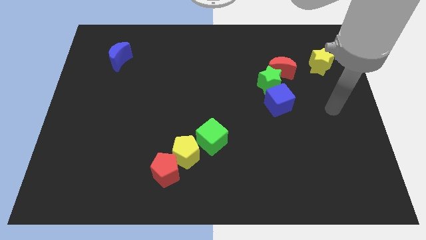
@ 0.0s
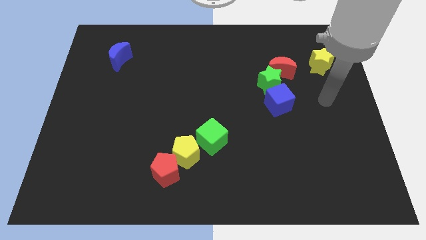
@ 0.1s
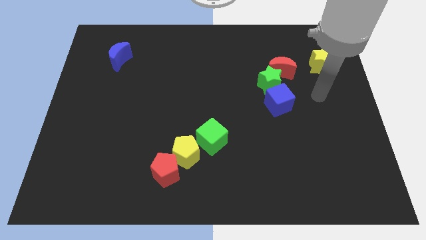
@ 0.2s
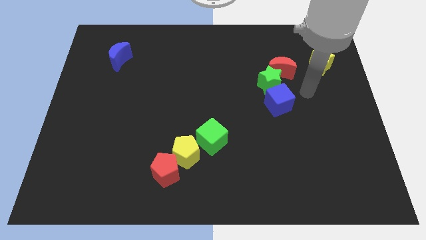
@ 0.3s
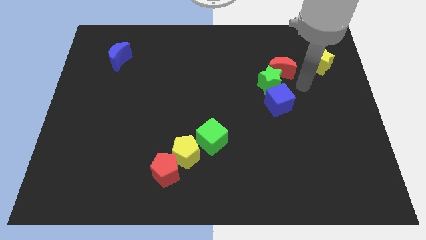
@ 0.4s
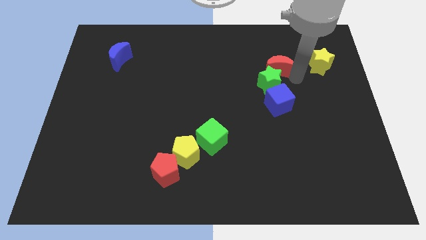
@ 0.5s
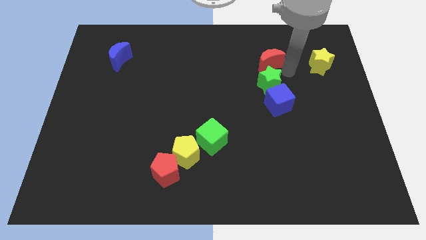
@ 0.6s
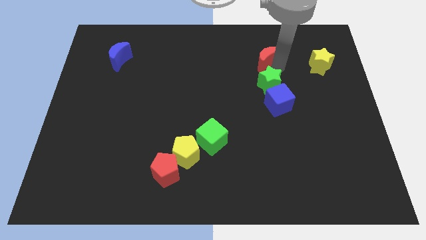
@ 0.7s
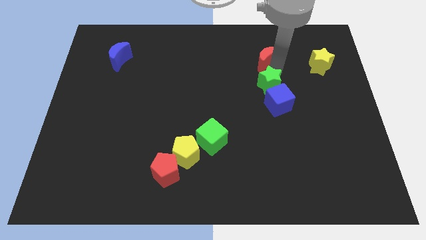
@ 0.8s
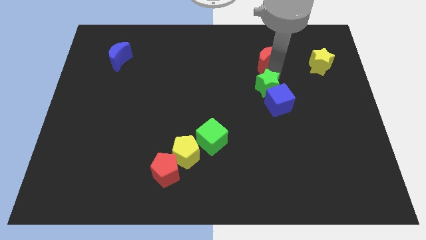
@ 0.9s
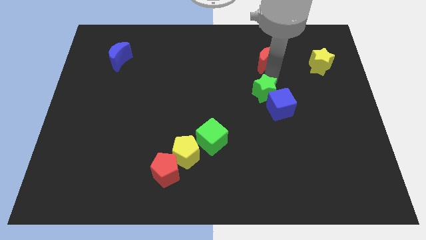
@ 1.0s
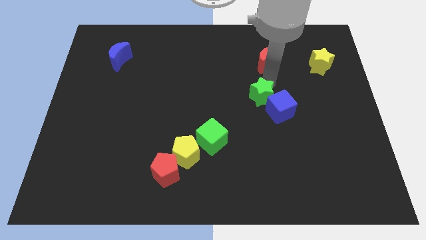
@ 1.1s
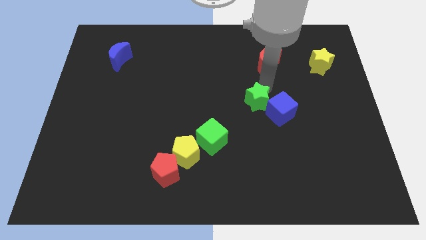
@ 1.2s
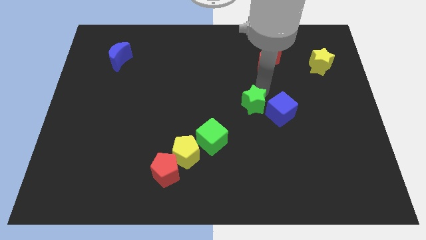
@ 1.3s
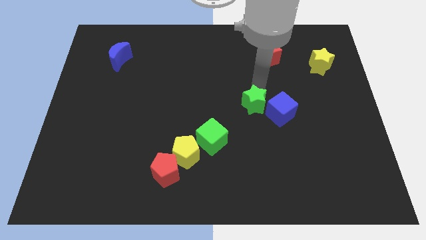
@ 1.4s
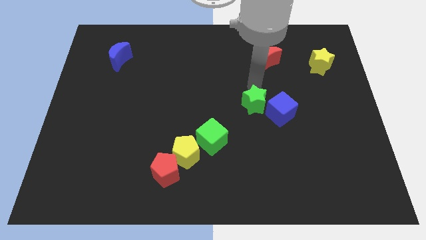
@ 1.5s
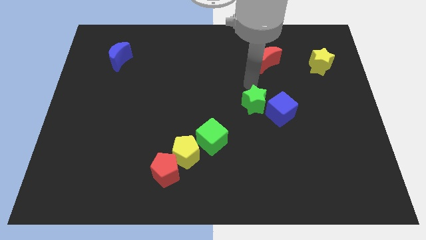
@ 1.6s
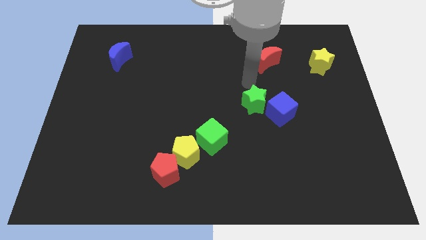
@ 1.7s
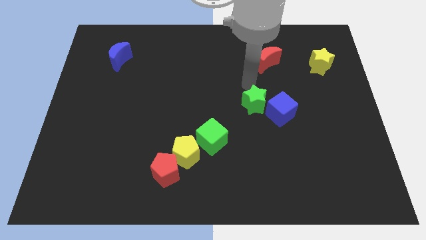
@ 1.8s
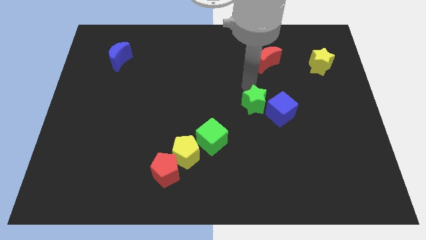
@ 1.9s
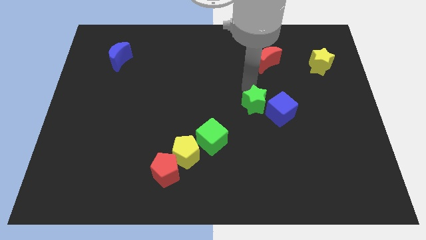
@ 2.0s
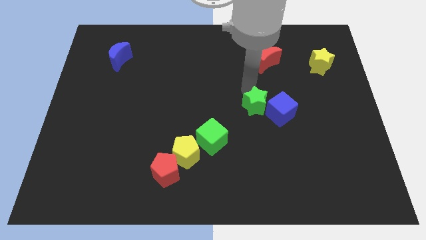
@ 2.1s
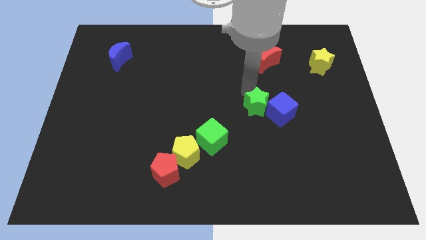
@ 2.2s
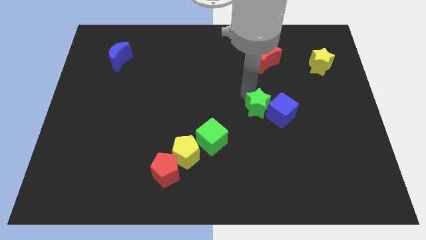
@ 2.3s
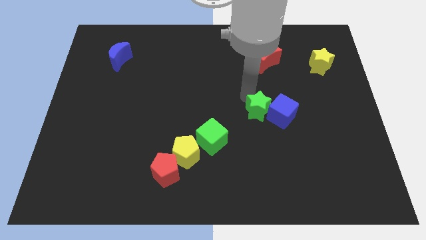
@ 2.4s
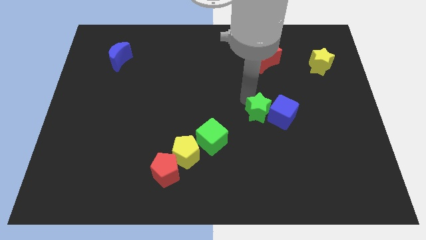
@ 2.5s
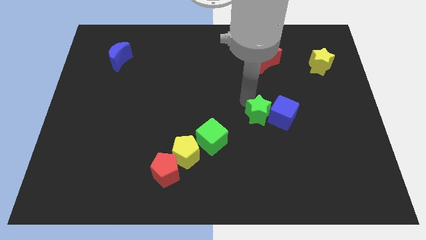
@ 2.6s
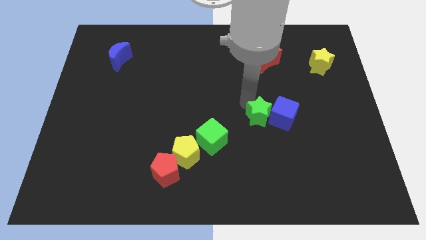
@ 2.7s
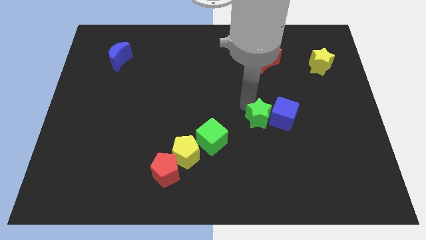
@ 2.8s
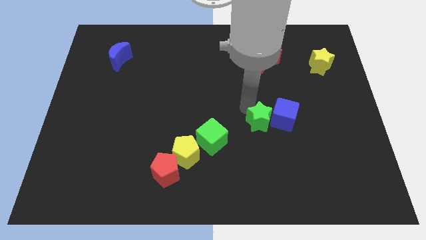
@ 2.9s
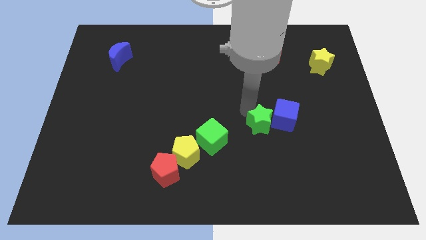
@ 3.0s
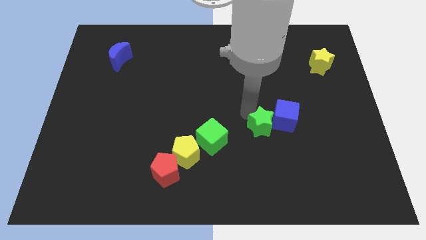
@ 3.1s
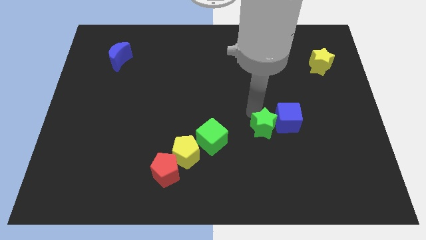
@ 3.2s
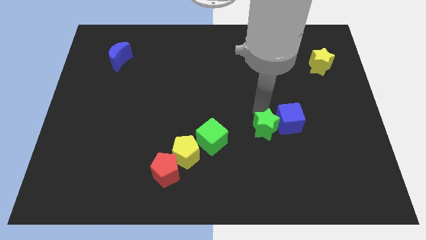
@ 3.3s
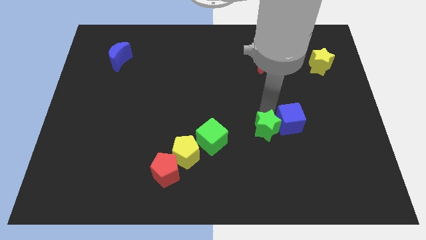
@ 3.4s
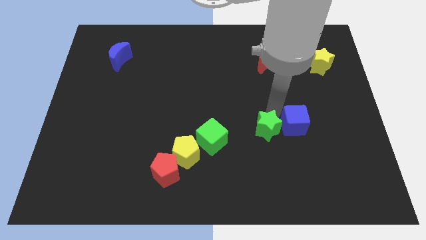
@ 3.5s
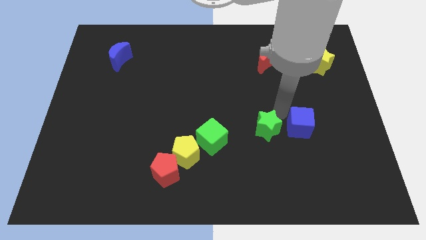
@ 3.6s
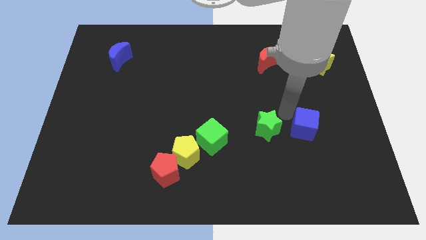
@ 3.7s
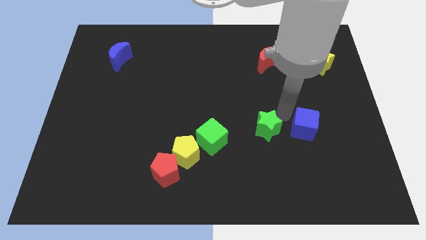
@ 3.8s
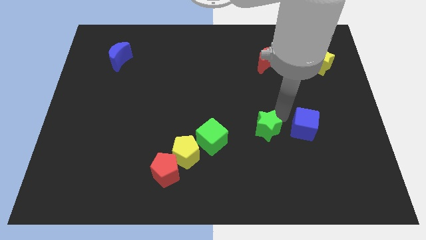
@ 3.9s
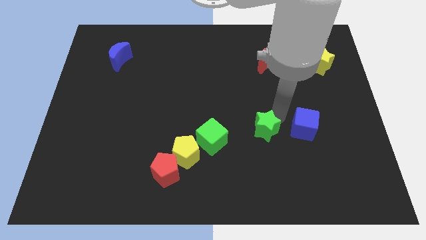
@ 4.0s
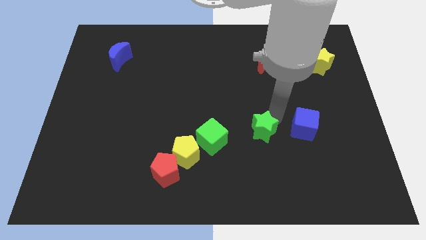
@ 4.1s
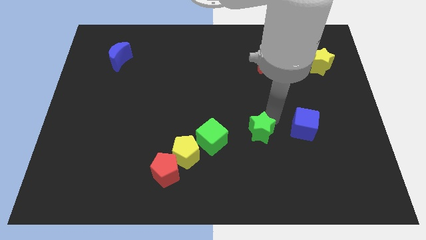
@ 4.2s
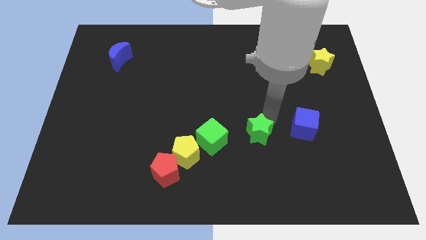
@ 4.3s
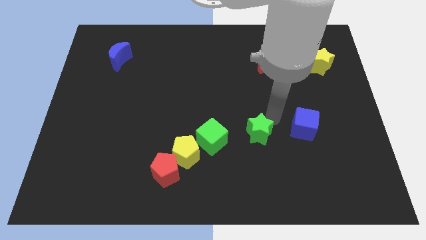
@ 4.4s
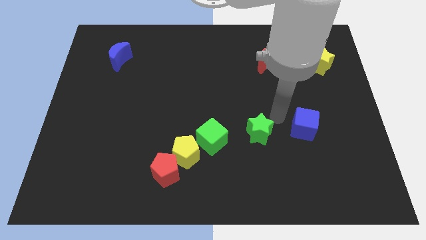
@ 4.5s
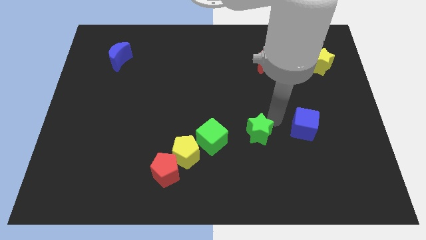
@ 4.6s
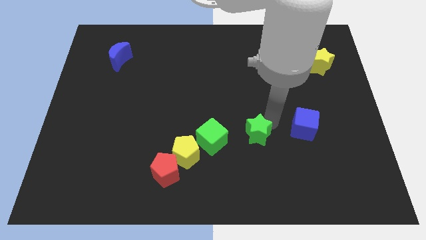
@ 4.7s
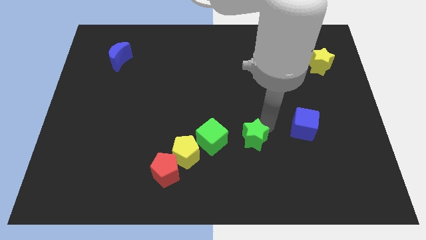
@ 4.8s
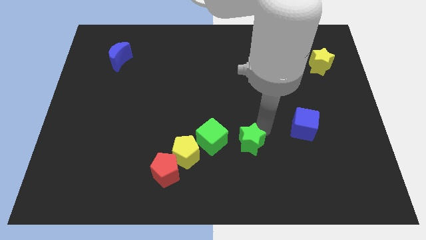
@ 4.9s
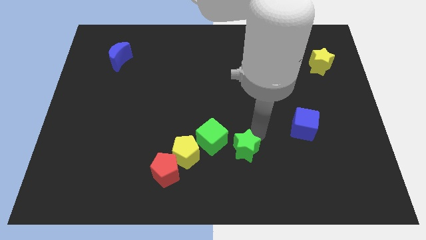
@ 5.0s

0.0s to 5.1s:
put the green star to the bottom right of the green cube

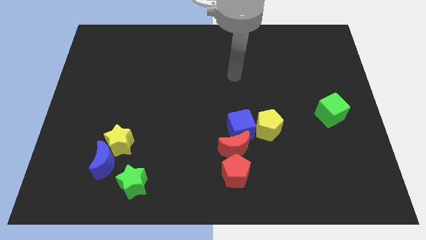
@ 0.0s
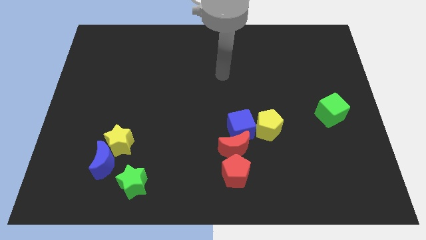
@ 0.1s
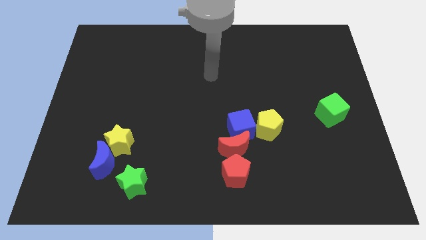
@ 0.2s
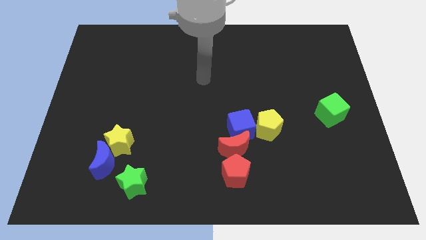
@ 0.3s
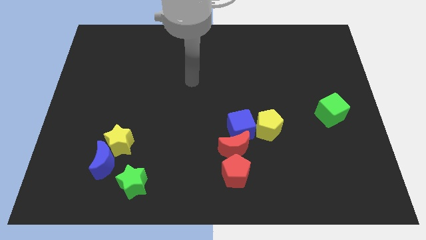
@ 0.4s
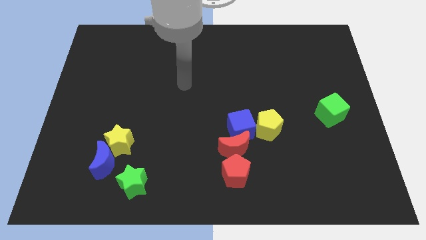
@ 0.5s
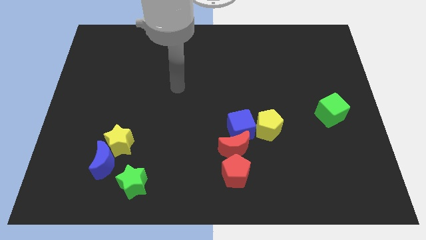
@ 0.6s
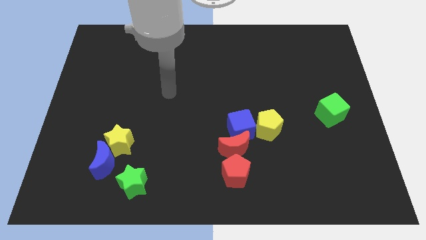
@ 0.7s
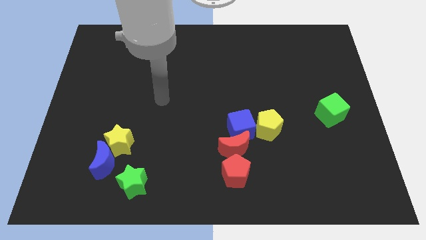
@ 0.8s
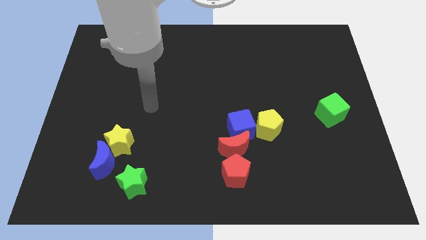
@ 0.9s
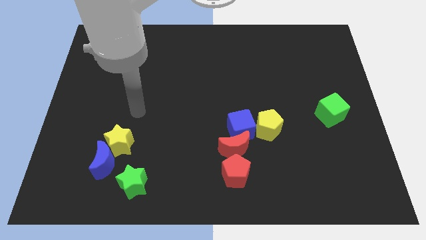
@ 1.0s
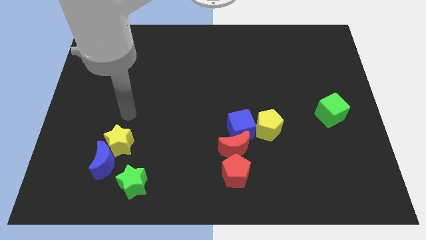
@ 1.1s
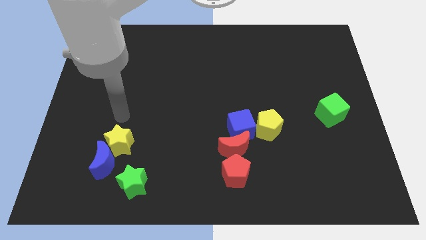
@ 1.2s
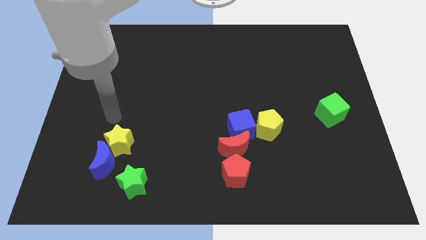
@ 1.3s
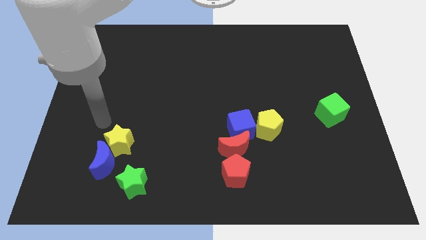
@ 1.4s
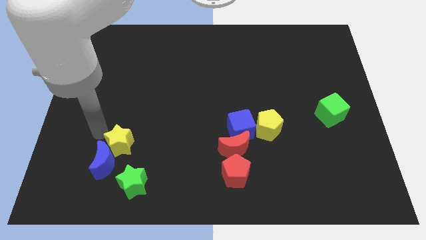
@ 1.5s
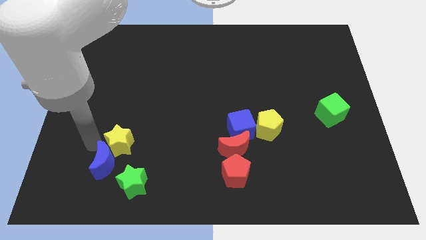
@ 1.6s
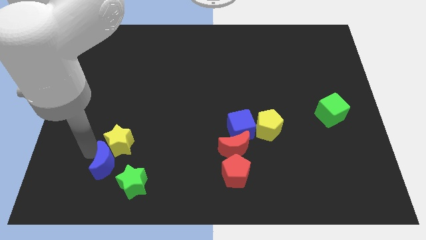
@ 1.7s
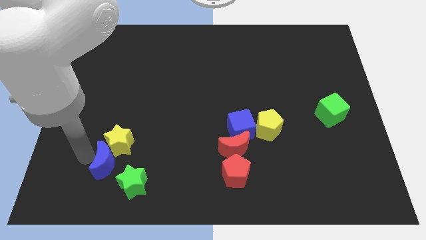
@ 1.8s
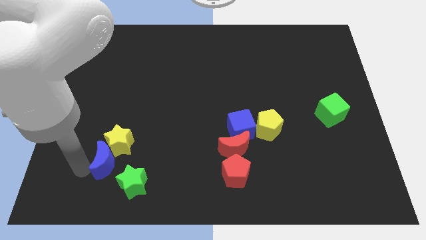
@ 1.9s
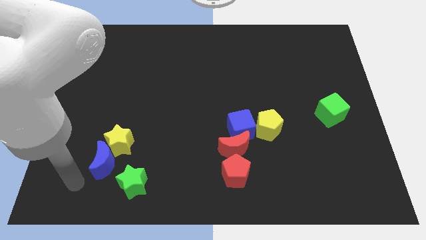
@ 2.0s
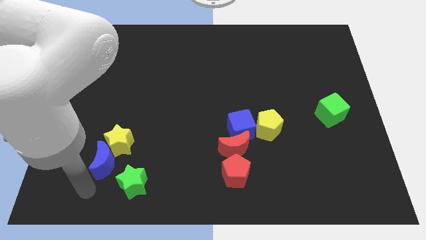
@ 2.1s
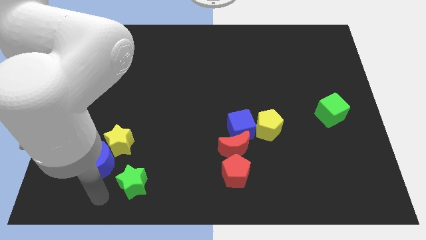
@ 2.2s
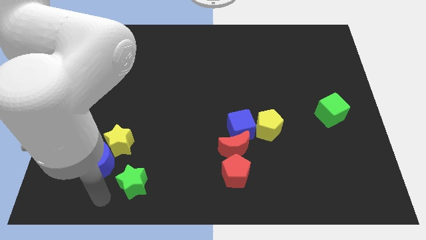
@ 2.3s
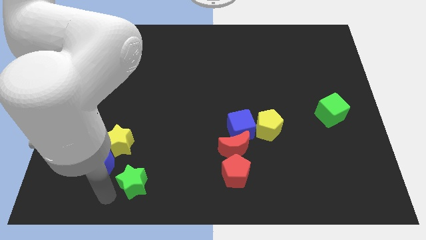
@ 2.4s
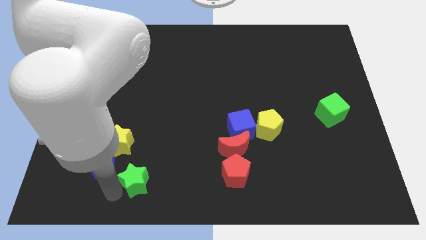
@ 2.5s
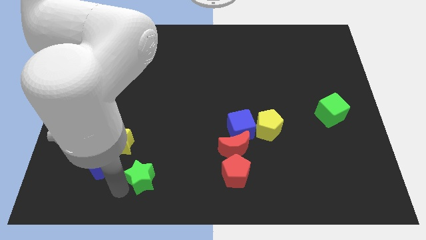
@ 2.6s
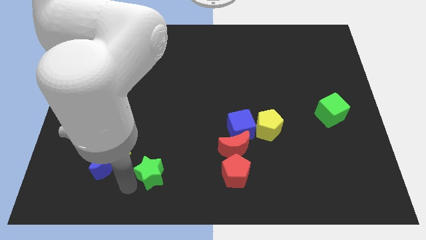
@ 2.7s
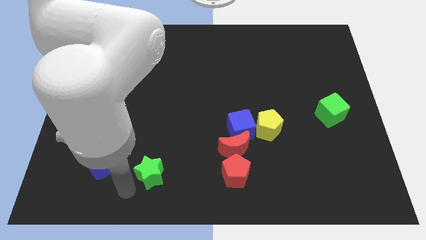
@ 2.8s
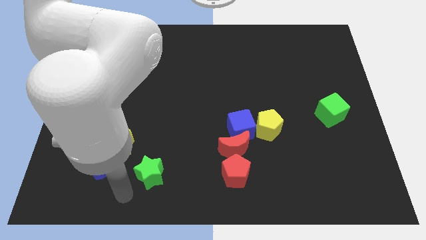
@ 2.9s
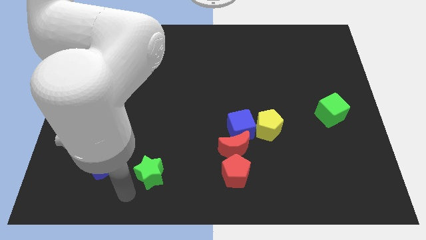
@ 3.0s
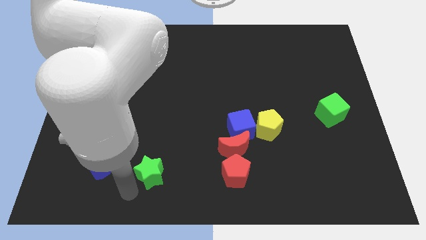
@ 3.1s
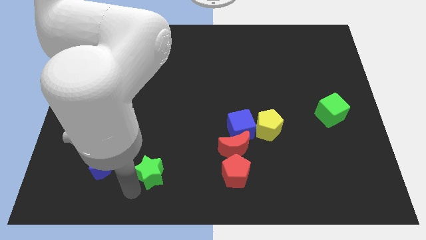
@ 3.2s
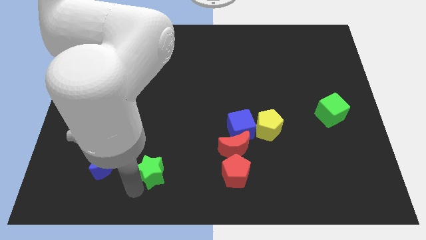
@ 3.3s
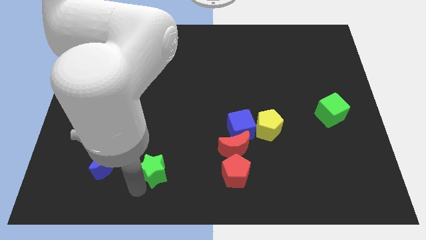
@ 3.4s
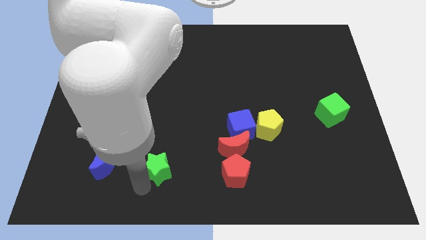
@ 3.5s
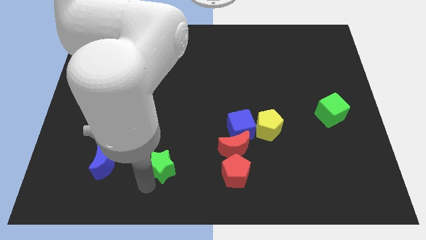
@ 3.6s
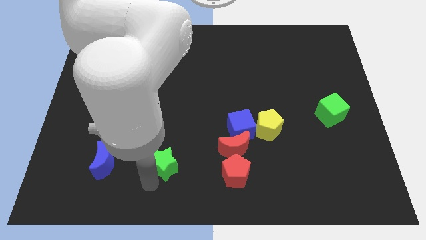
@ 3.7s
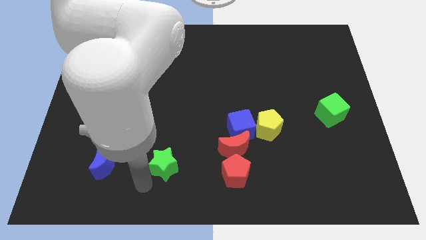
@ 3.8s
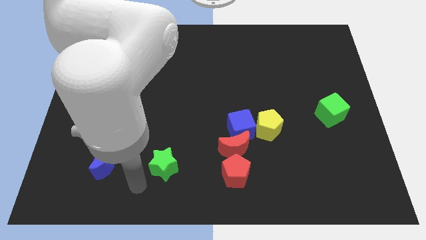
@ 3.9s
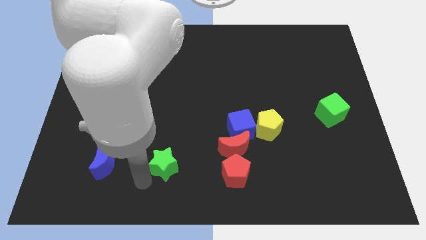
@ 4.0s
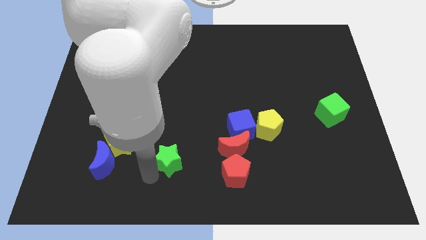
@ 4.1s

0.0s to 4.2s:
slide the green star just left of the red moon
